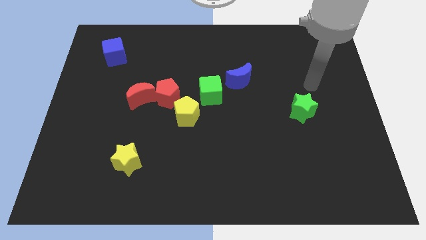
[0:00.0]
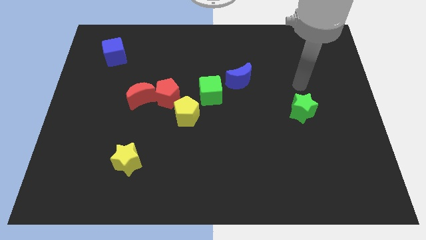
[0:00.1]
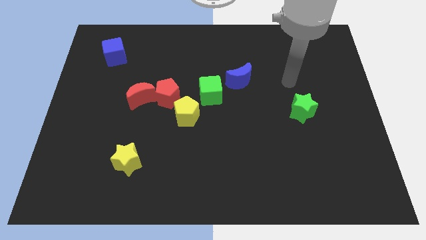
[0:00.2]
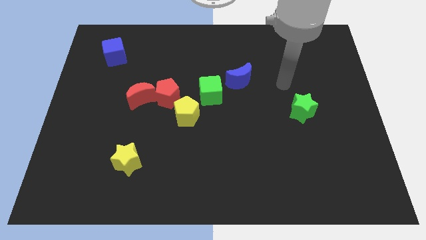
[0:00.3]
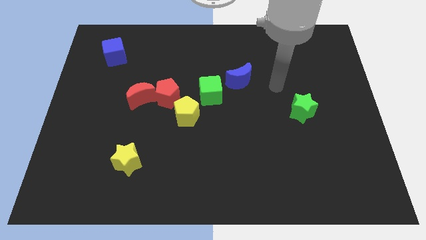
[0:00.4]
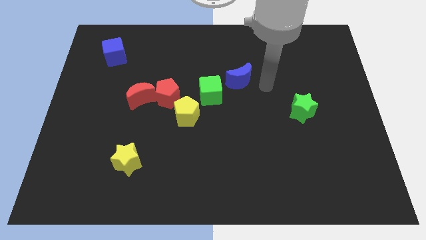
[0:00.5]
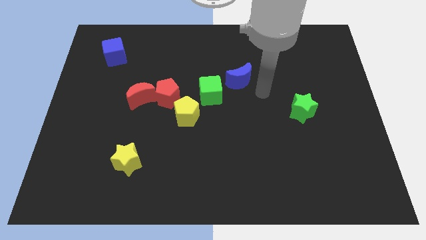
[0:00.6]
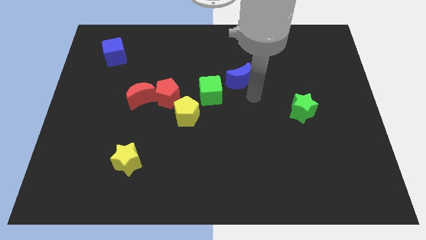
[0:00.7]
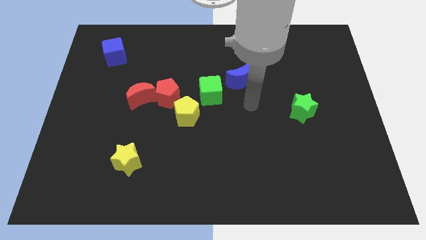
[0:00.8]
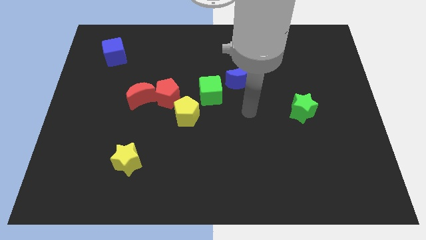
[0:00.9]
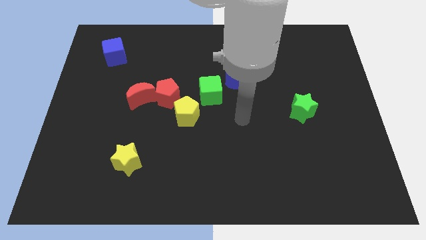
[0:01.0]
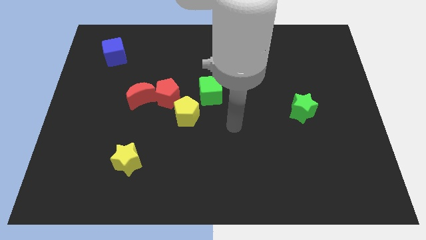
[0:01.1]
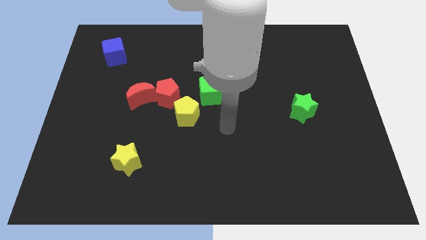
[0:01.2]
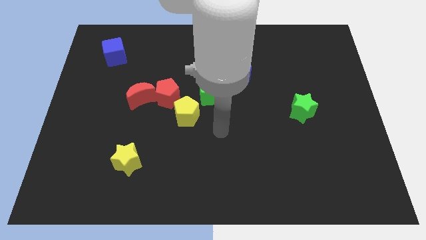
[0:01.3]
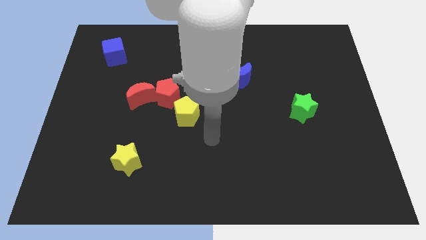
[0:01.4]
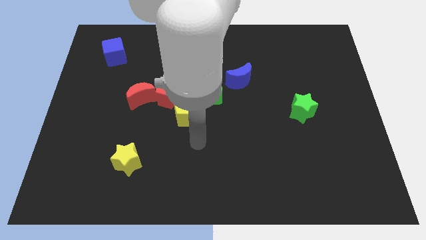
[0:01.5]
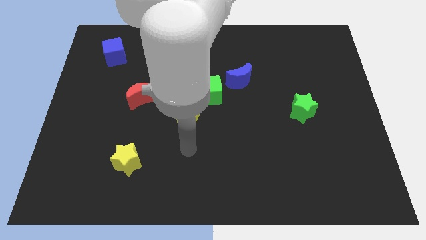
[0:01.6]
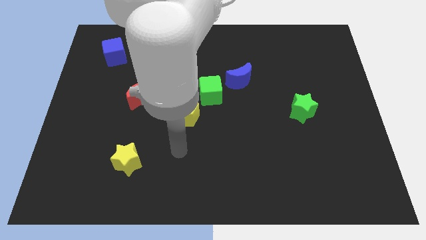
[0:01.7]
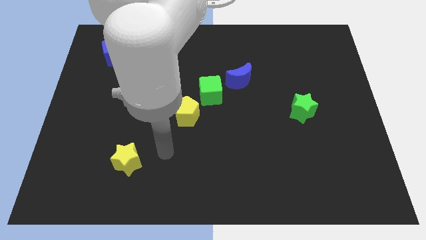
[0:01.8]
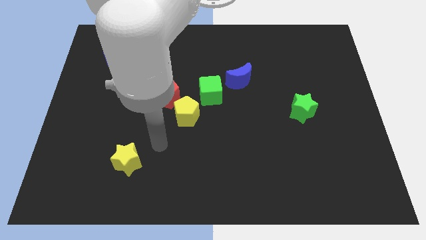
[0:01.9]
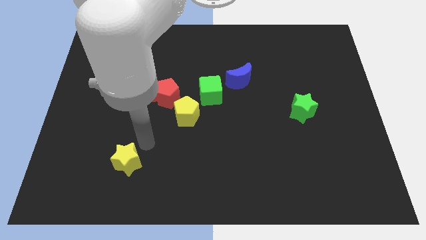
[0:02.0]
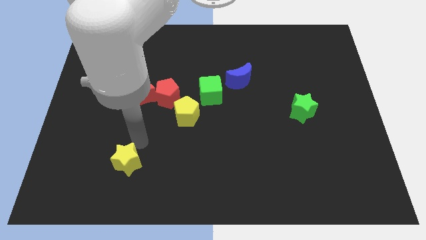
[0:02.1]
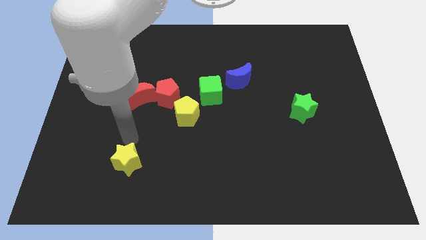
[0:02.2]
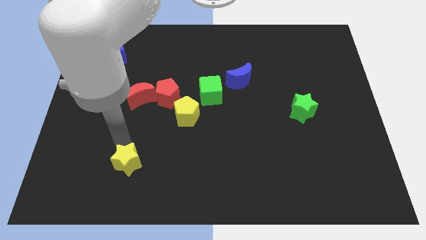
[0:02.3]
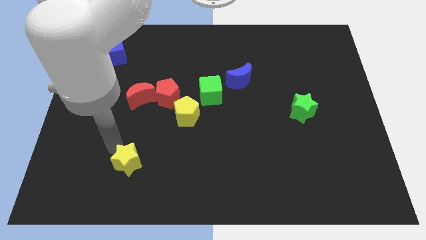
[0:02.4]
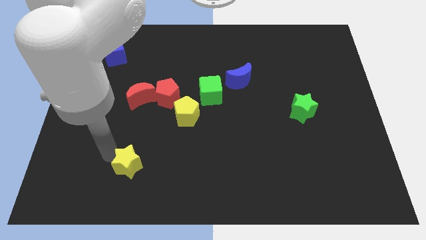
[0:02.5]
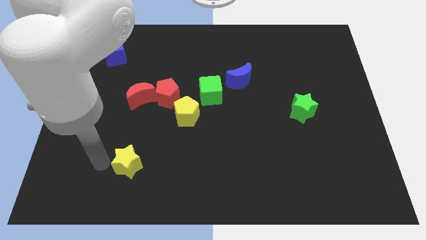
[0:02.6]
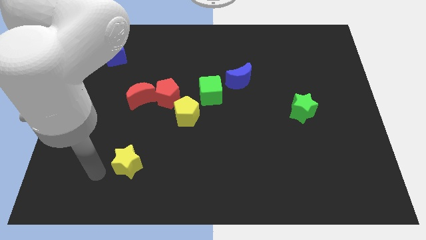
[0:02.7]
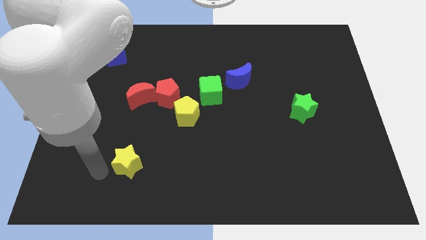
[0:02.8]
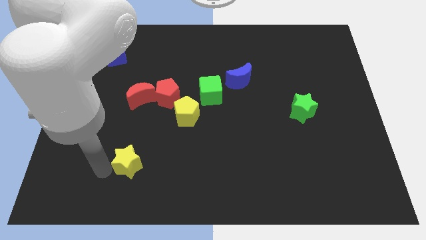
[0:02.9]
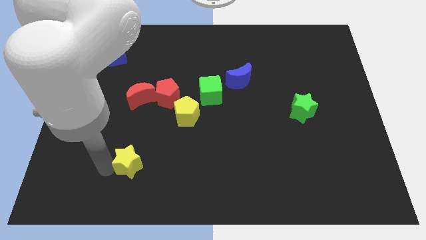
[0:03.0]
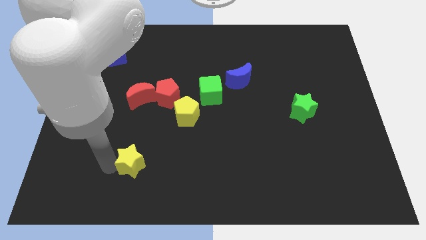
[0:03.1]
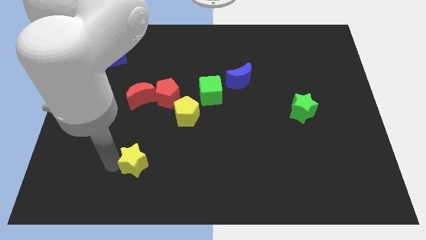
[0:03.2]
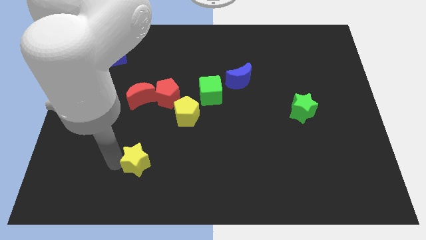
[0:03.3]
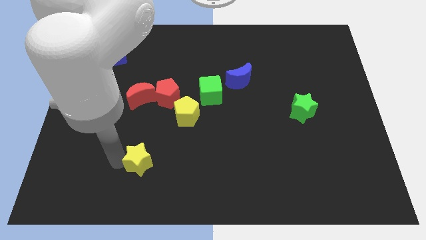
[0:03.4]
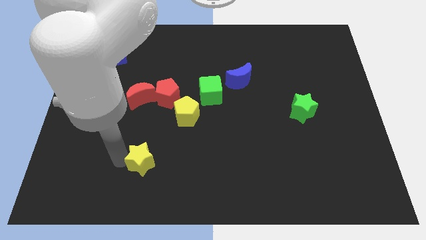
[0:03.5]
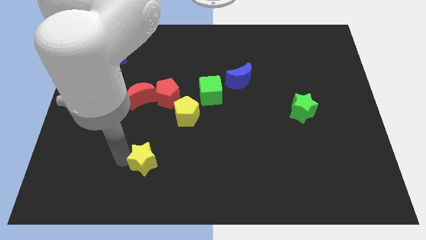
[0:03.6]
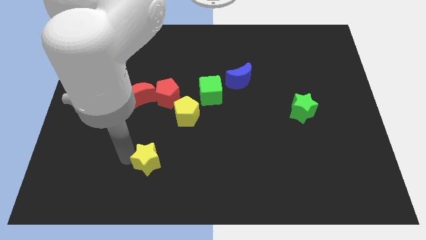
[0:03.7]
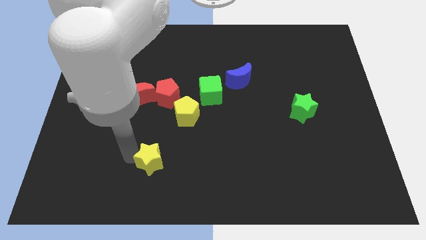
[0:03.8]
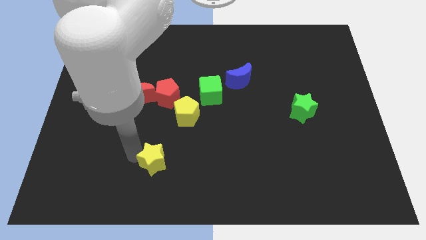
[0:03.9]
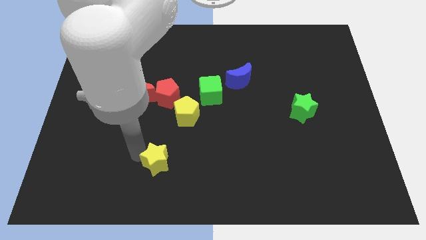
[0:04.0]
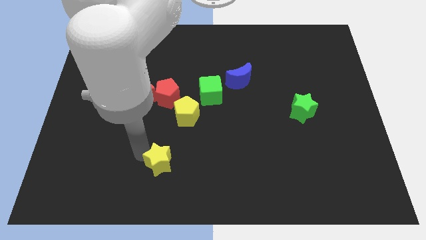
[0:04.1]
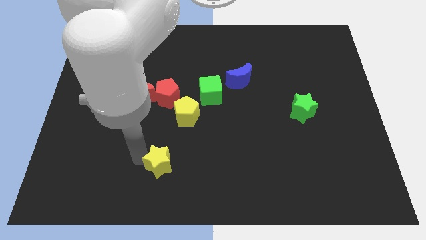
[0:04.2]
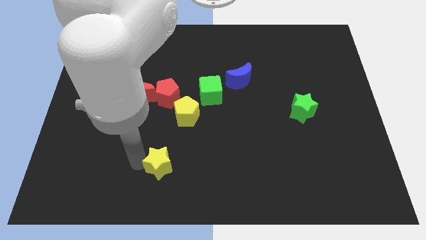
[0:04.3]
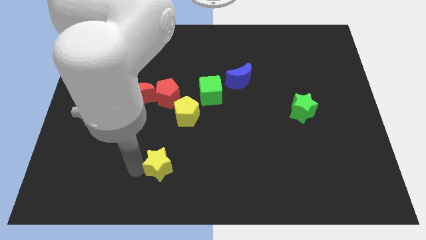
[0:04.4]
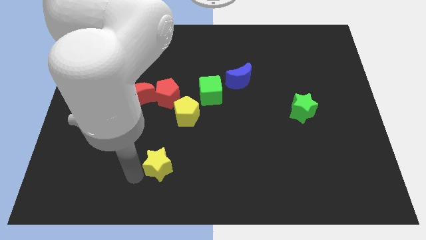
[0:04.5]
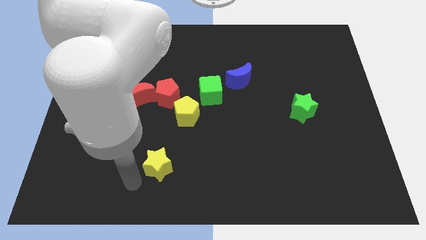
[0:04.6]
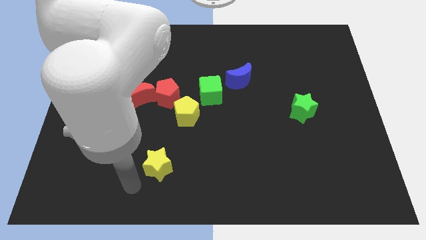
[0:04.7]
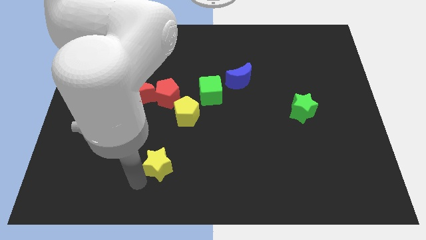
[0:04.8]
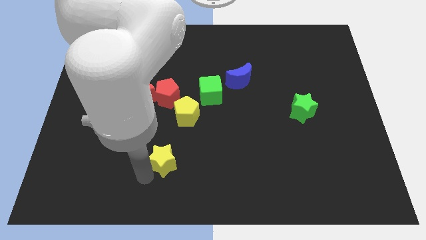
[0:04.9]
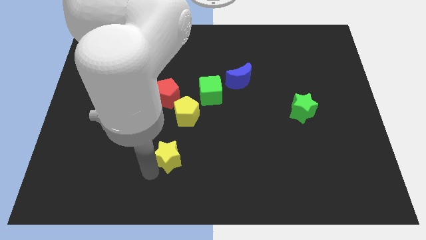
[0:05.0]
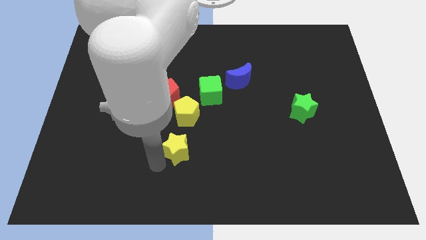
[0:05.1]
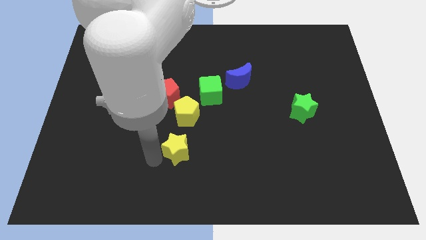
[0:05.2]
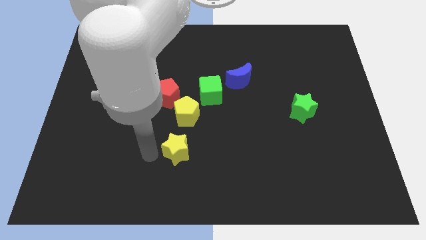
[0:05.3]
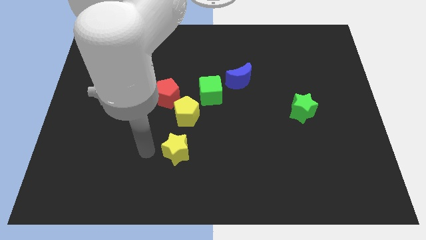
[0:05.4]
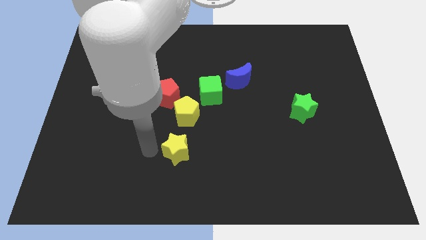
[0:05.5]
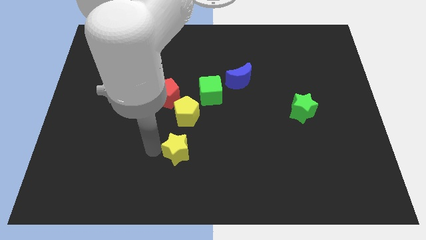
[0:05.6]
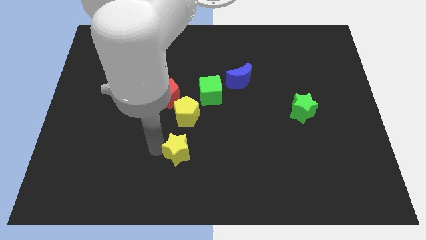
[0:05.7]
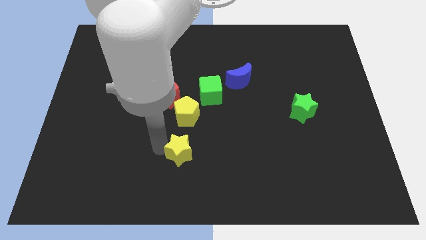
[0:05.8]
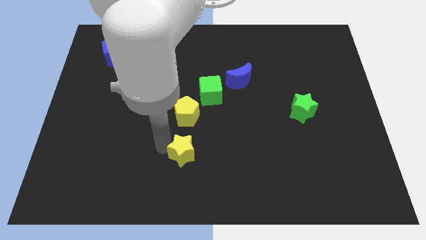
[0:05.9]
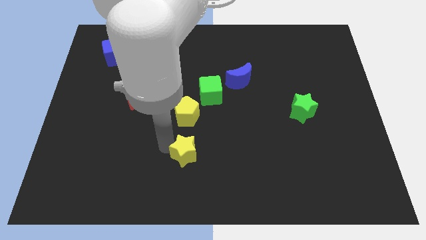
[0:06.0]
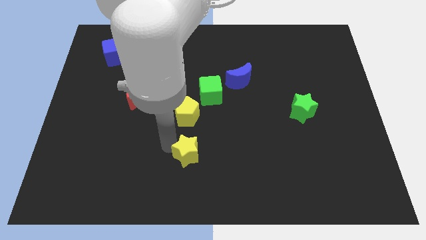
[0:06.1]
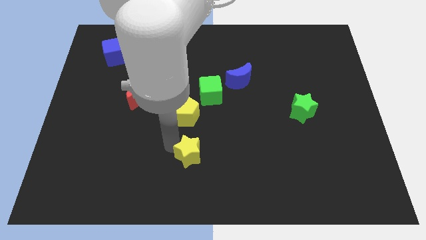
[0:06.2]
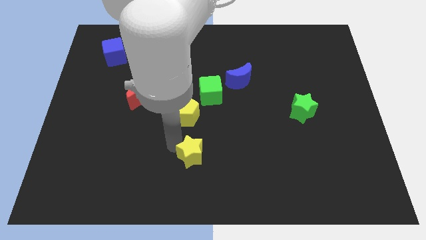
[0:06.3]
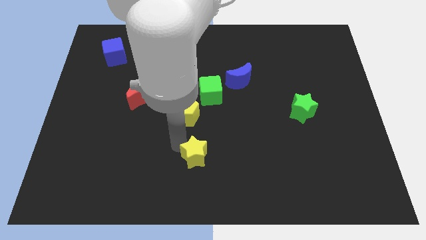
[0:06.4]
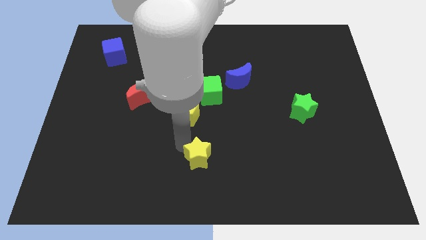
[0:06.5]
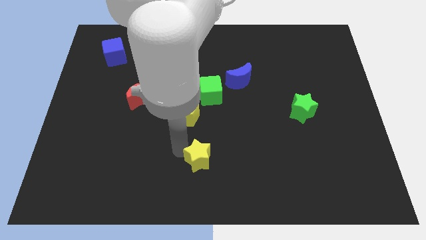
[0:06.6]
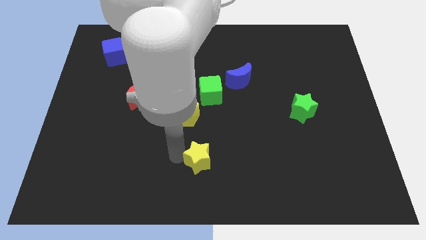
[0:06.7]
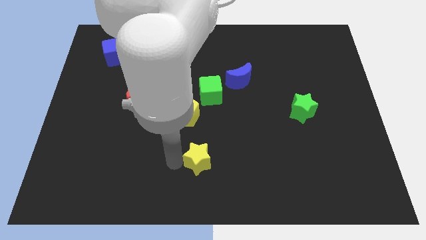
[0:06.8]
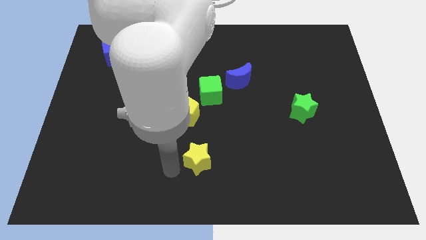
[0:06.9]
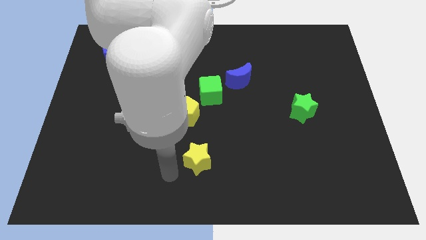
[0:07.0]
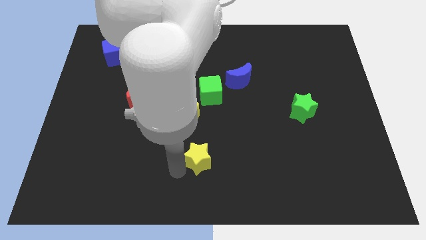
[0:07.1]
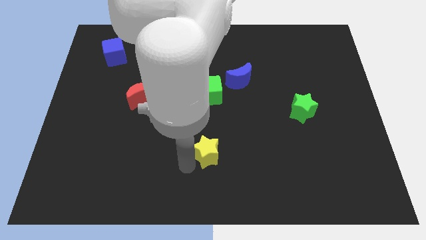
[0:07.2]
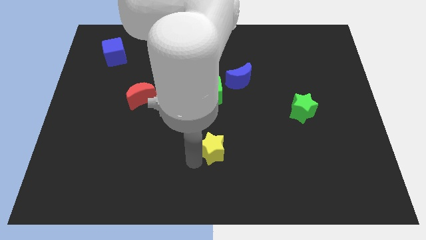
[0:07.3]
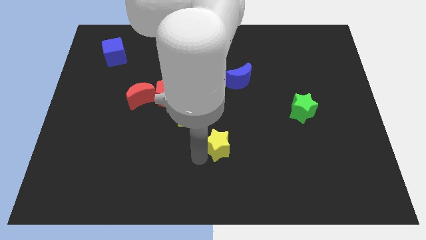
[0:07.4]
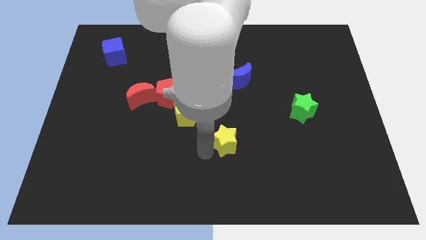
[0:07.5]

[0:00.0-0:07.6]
move the yellow star right

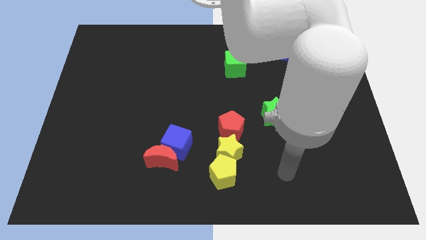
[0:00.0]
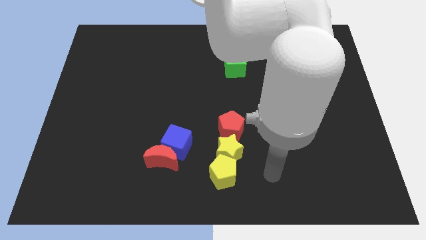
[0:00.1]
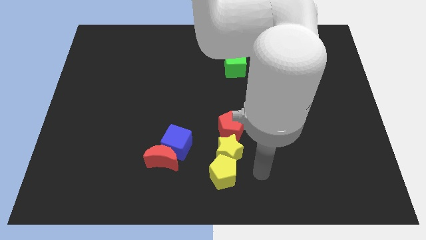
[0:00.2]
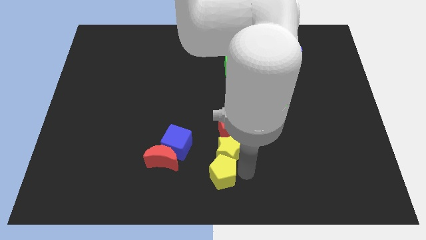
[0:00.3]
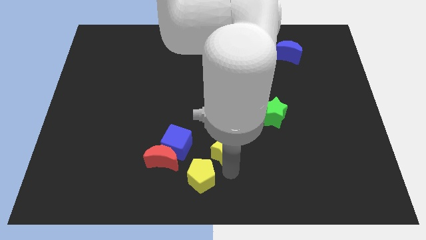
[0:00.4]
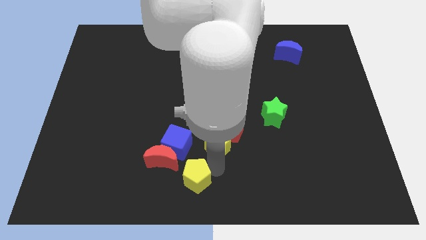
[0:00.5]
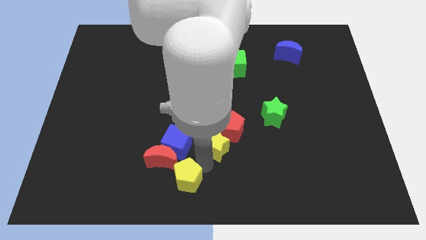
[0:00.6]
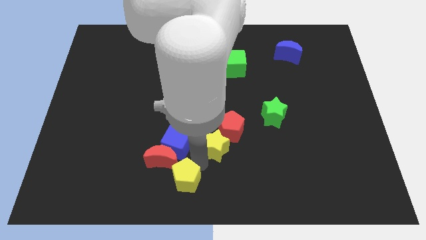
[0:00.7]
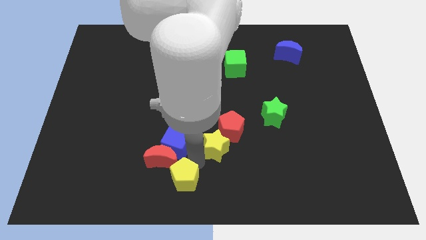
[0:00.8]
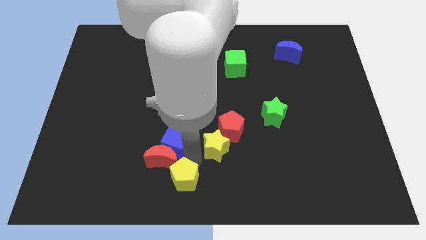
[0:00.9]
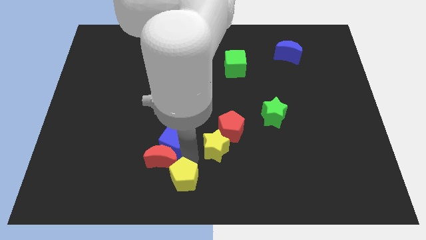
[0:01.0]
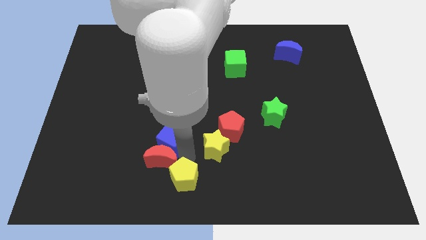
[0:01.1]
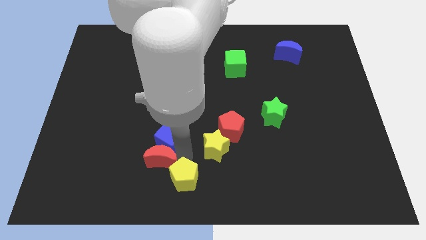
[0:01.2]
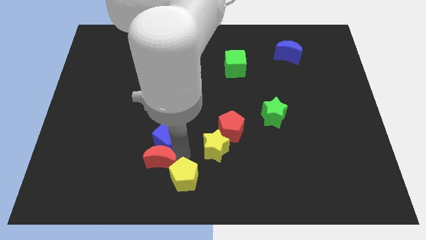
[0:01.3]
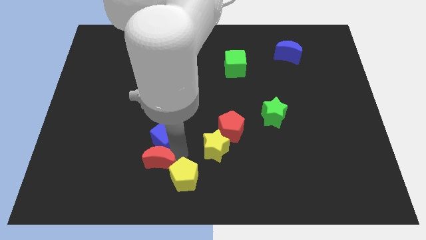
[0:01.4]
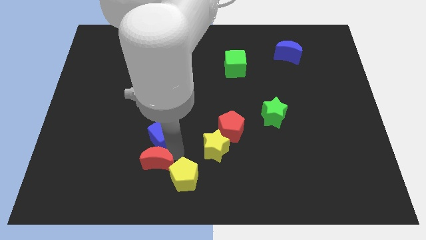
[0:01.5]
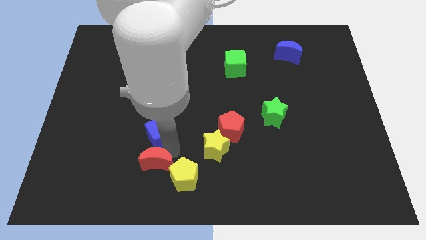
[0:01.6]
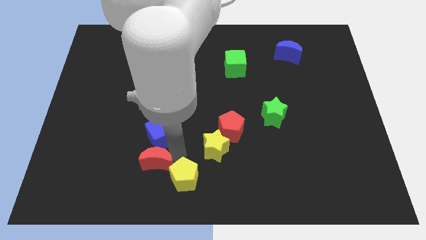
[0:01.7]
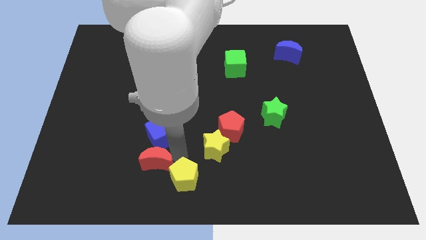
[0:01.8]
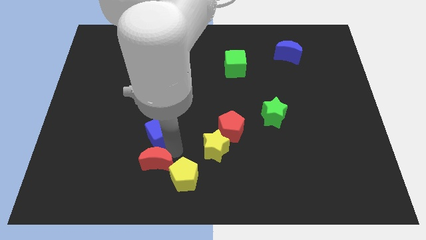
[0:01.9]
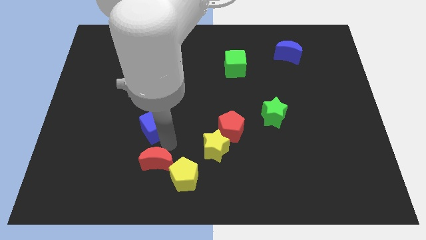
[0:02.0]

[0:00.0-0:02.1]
slightly slide the blue cube diagonally upwards and to the left
